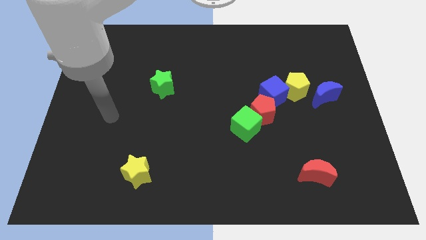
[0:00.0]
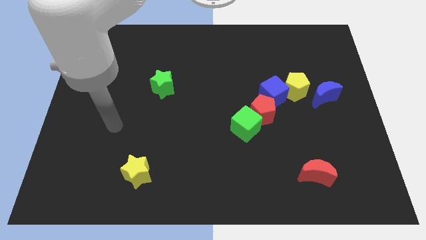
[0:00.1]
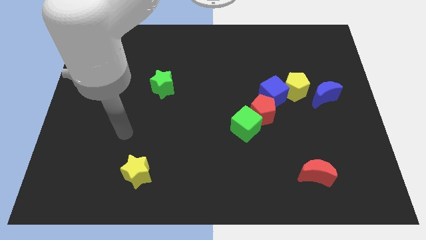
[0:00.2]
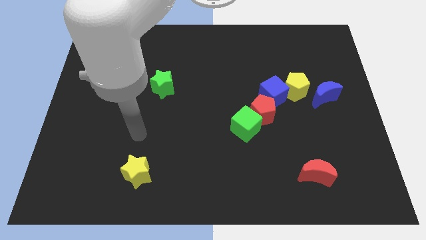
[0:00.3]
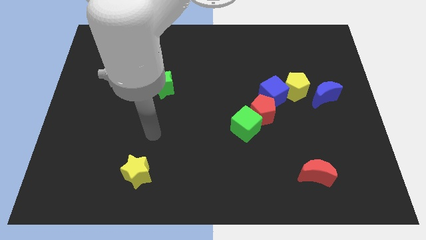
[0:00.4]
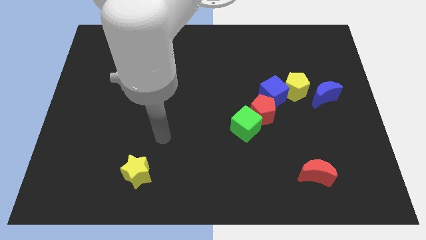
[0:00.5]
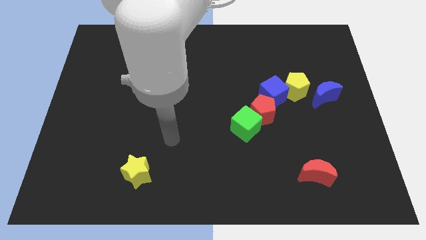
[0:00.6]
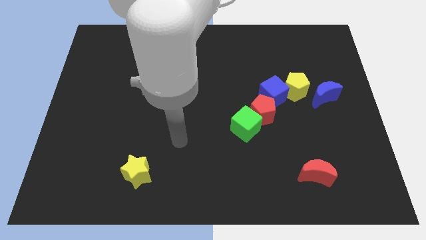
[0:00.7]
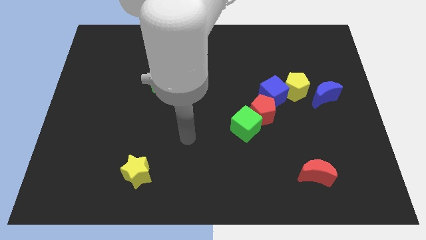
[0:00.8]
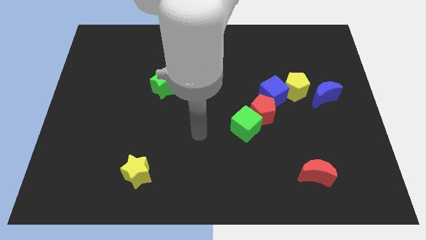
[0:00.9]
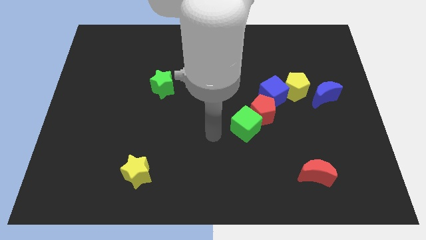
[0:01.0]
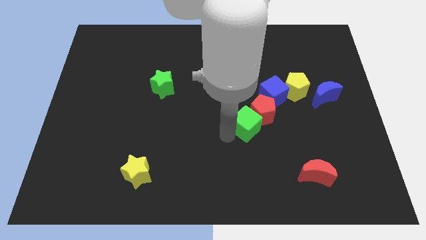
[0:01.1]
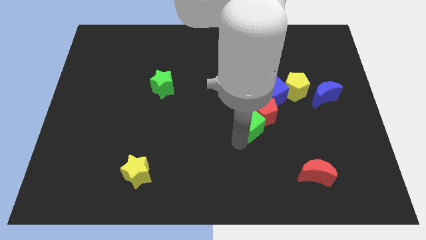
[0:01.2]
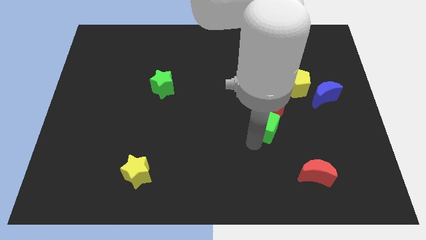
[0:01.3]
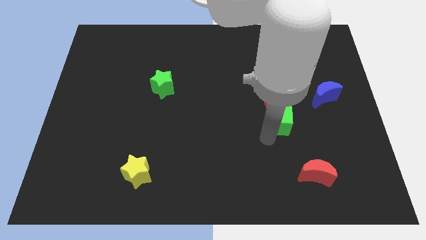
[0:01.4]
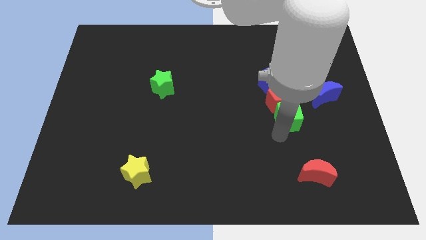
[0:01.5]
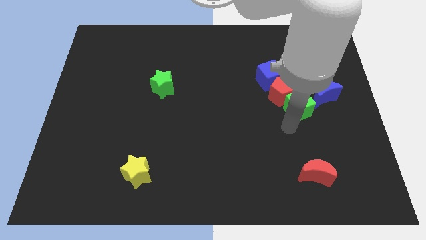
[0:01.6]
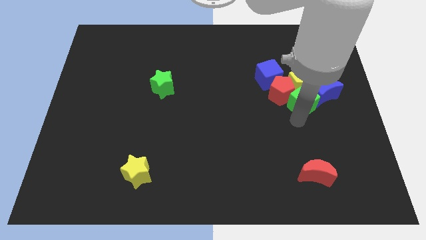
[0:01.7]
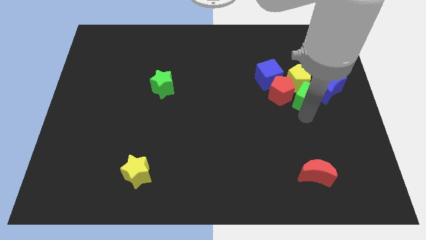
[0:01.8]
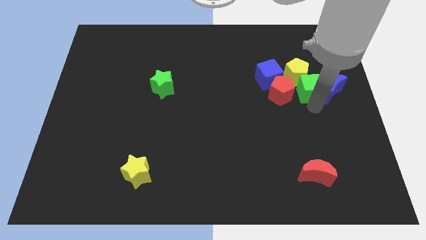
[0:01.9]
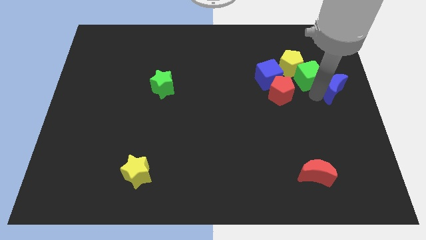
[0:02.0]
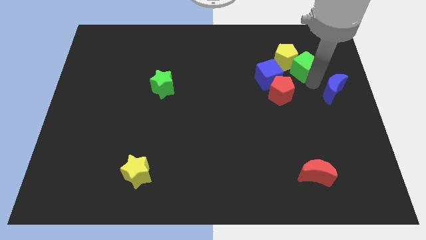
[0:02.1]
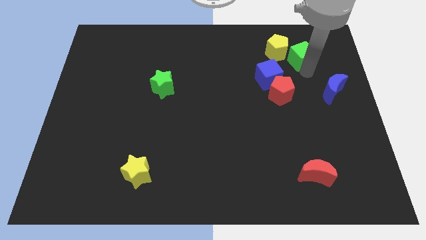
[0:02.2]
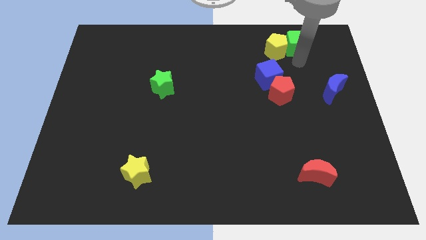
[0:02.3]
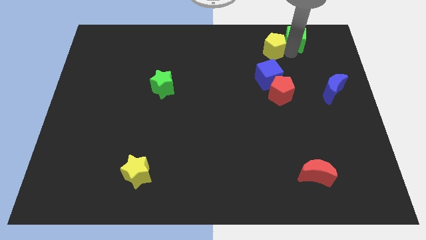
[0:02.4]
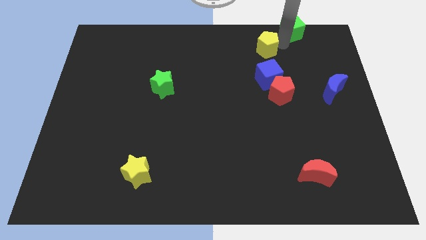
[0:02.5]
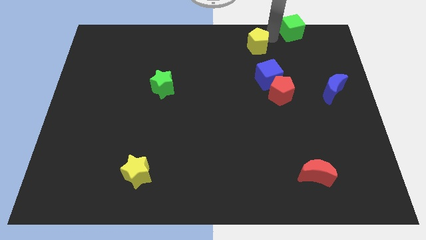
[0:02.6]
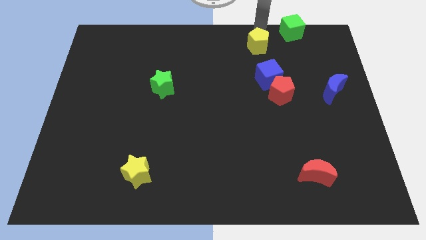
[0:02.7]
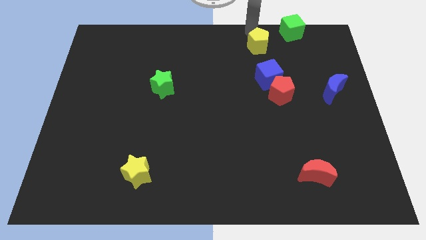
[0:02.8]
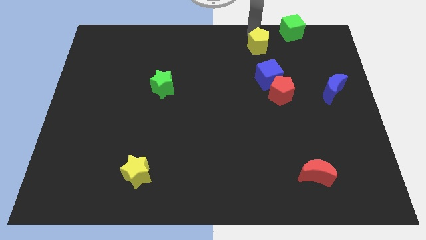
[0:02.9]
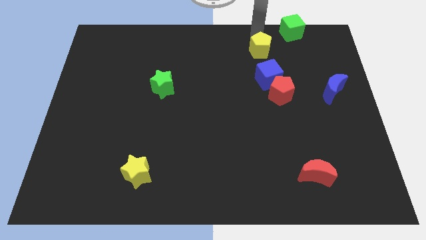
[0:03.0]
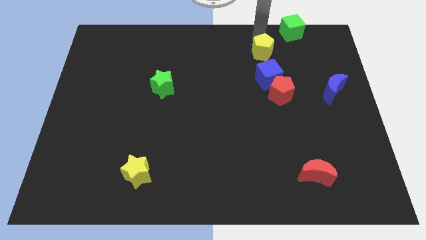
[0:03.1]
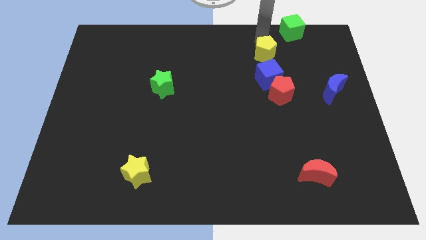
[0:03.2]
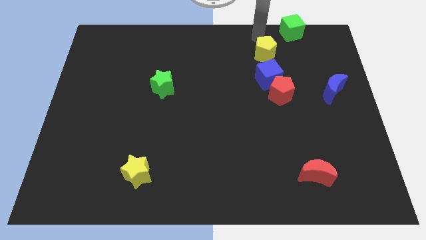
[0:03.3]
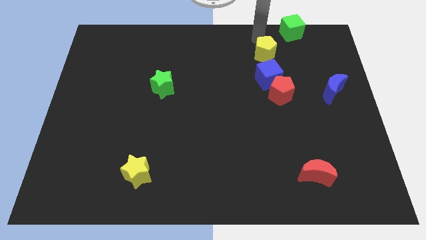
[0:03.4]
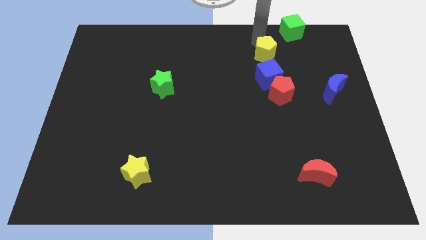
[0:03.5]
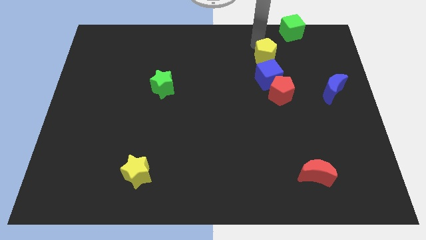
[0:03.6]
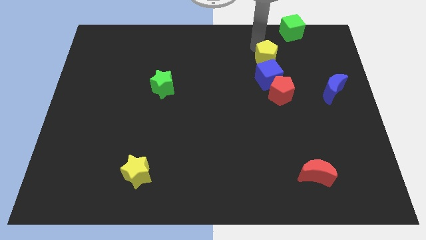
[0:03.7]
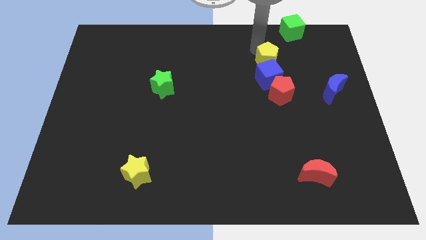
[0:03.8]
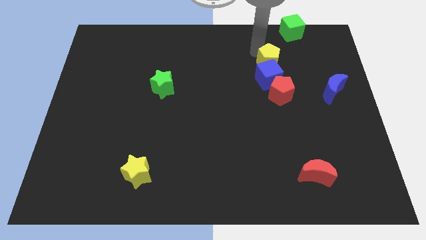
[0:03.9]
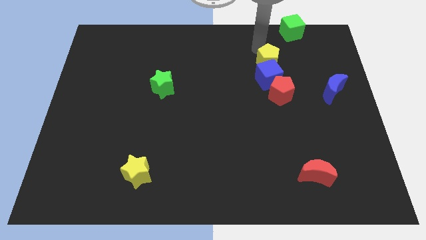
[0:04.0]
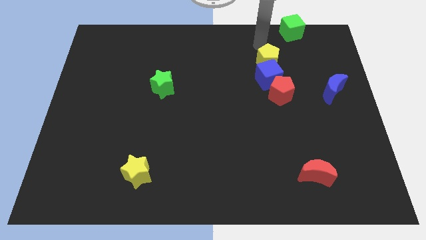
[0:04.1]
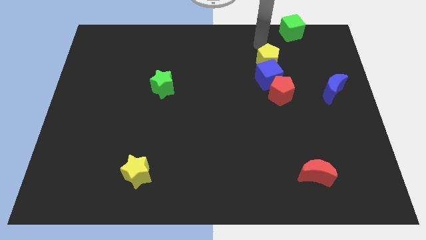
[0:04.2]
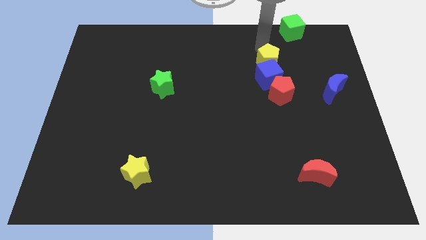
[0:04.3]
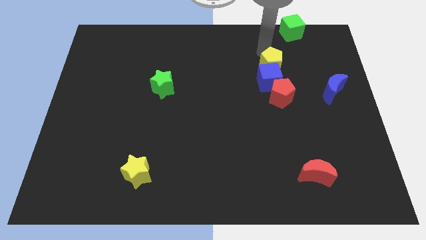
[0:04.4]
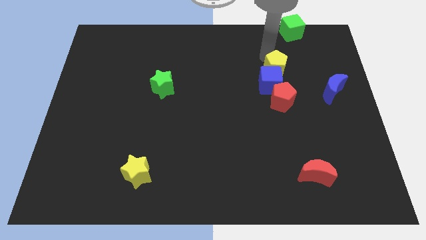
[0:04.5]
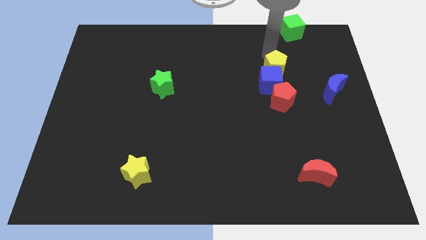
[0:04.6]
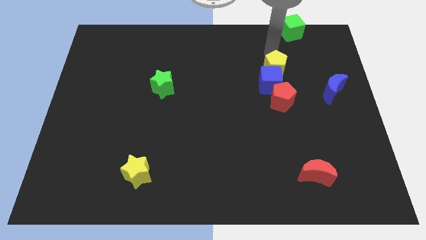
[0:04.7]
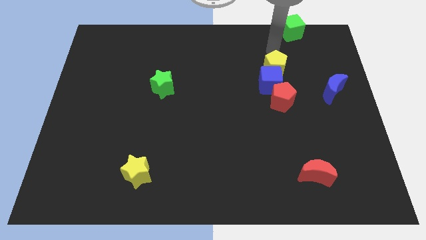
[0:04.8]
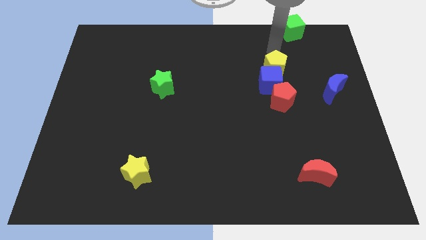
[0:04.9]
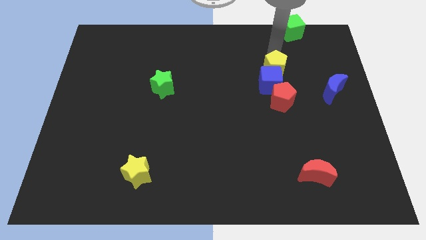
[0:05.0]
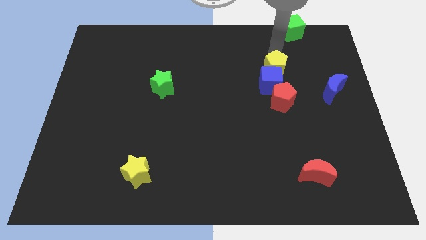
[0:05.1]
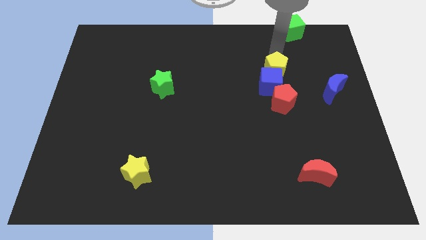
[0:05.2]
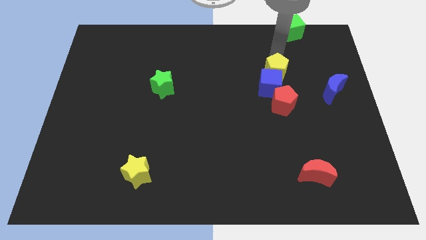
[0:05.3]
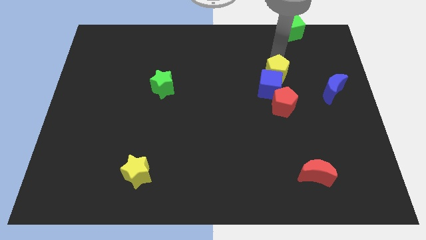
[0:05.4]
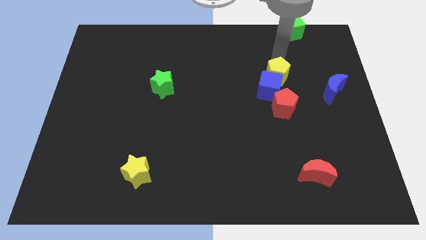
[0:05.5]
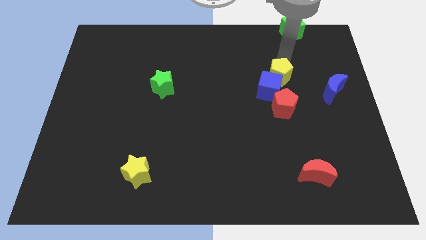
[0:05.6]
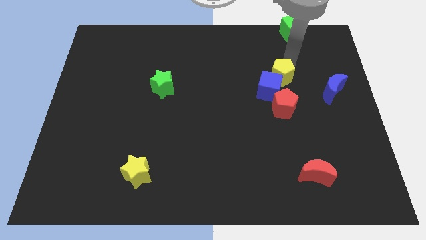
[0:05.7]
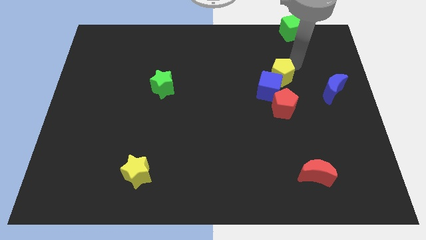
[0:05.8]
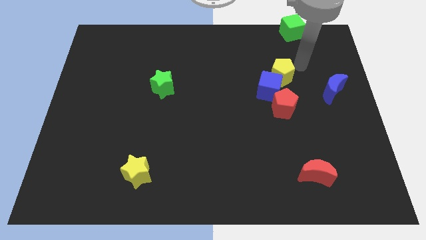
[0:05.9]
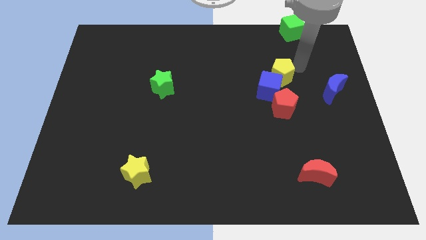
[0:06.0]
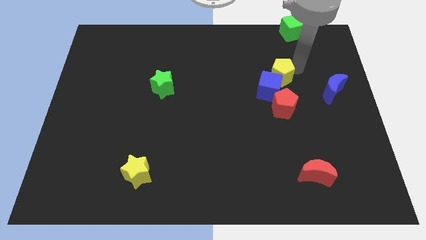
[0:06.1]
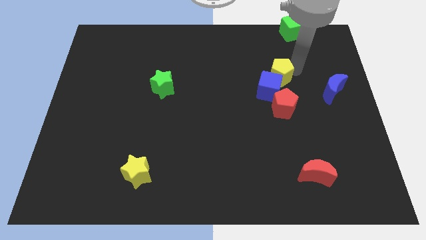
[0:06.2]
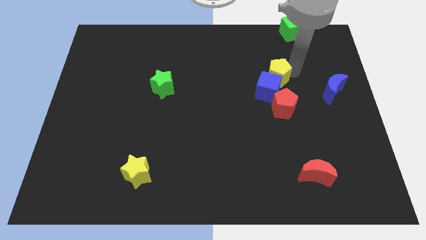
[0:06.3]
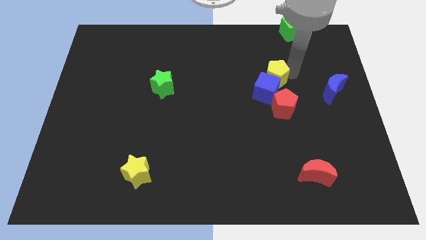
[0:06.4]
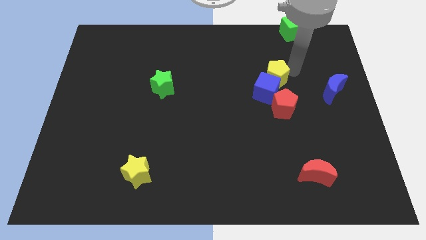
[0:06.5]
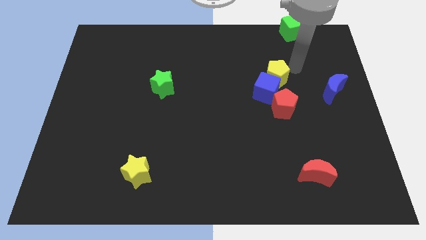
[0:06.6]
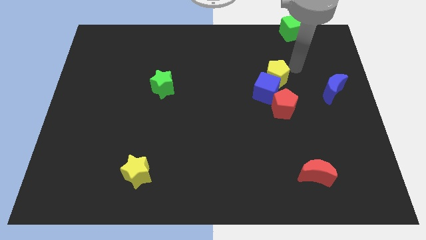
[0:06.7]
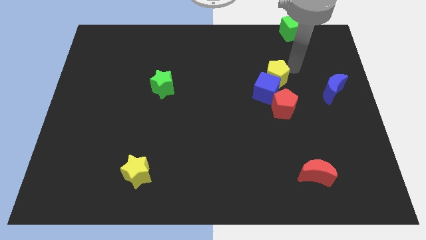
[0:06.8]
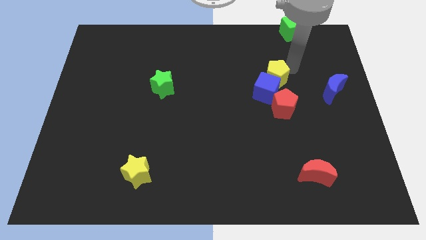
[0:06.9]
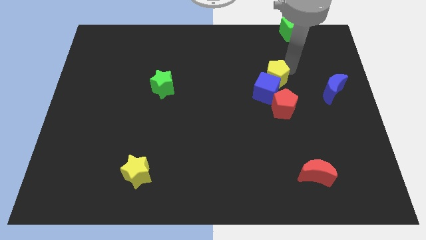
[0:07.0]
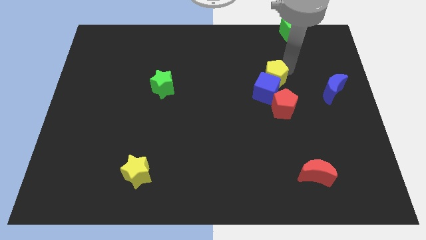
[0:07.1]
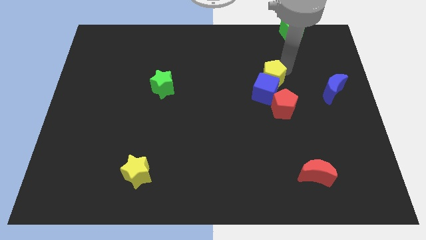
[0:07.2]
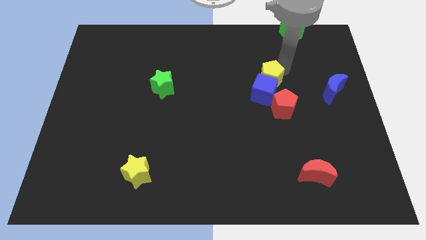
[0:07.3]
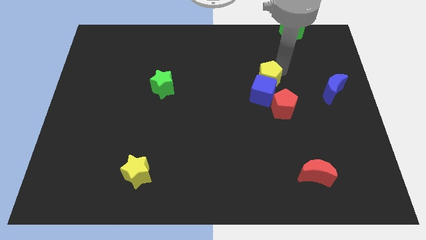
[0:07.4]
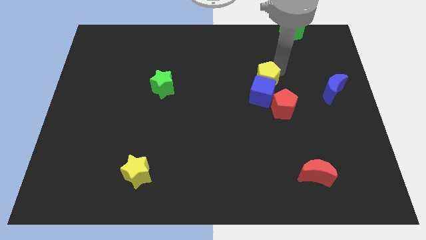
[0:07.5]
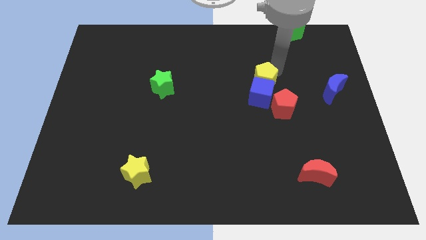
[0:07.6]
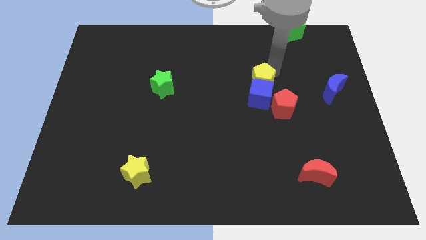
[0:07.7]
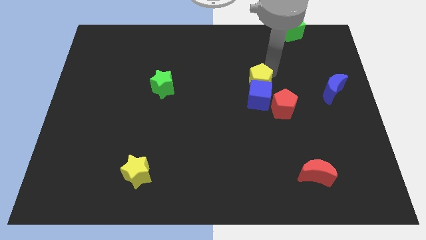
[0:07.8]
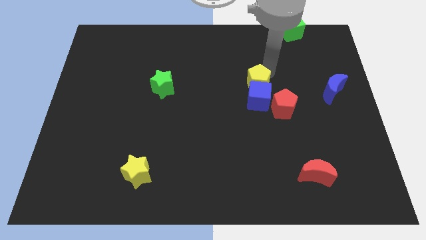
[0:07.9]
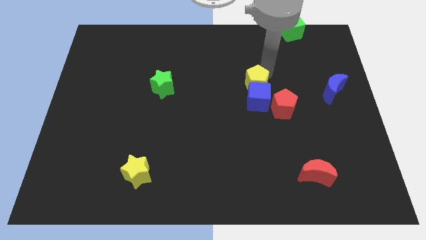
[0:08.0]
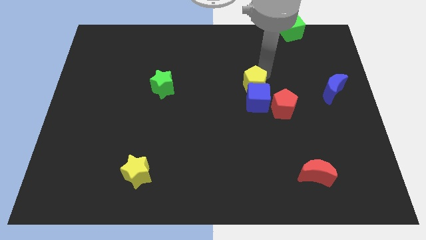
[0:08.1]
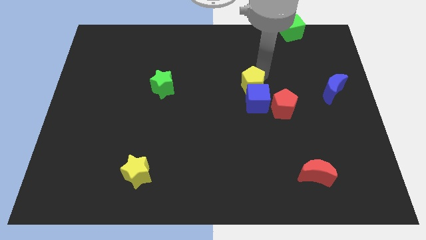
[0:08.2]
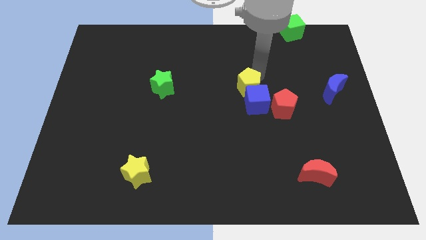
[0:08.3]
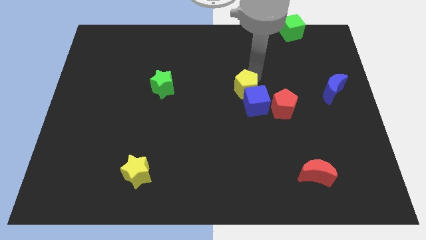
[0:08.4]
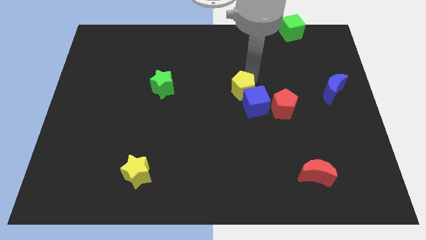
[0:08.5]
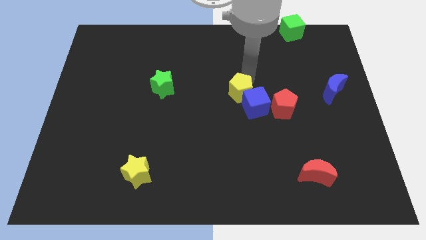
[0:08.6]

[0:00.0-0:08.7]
move the yellow pentagon left of the blue cube
